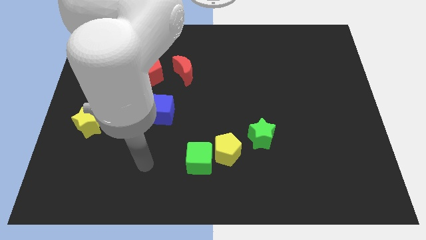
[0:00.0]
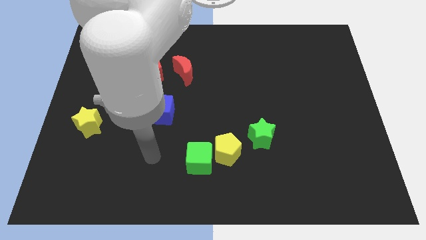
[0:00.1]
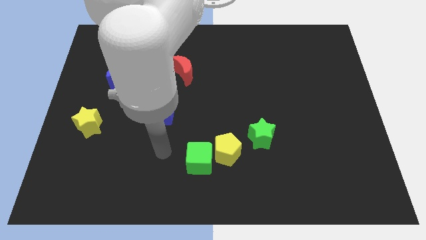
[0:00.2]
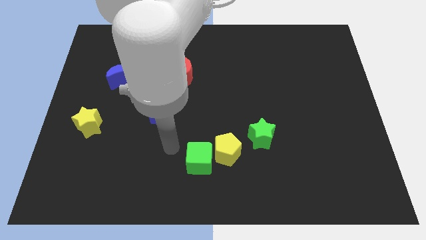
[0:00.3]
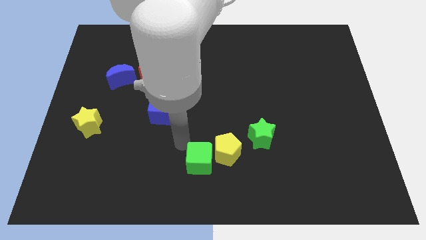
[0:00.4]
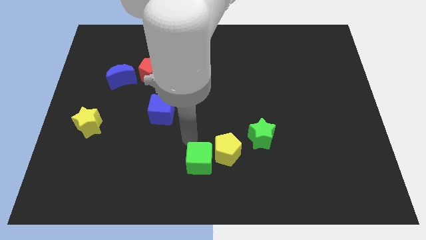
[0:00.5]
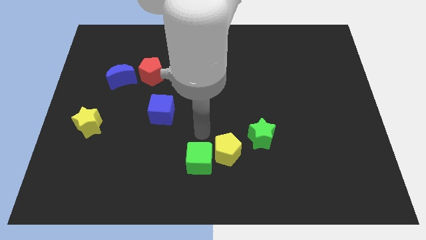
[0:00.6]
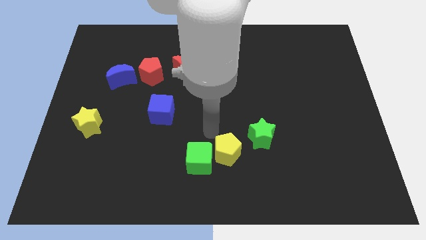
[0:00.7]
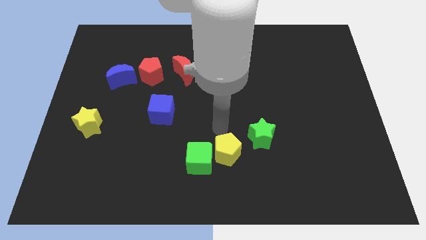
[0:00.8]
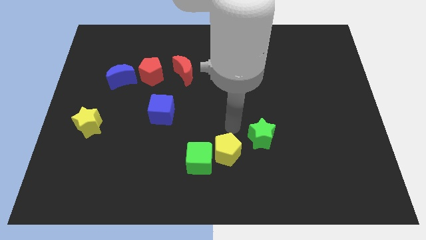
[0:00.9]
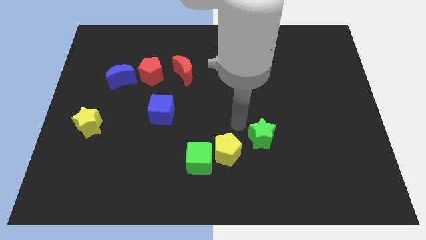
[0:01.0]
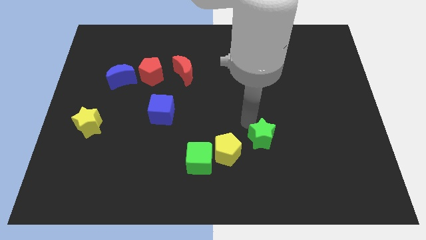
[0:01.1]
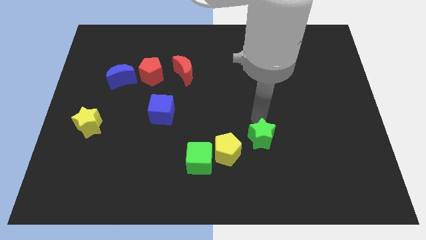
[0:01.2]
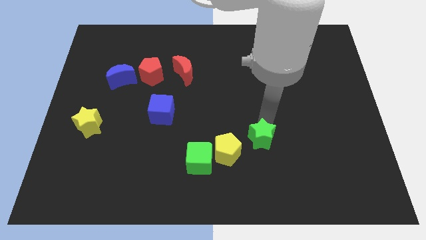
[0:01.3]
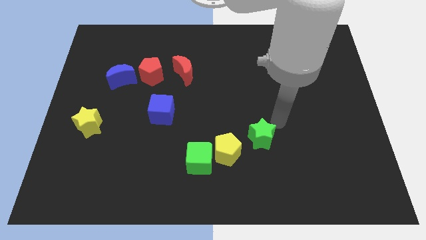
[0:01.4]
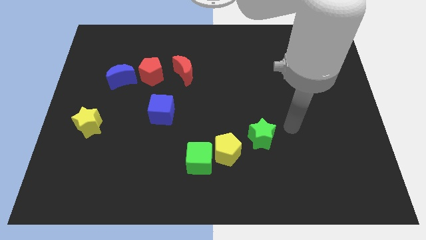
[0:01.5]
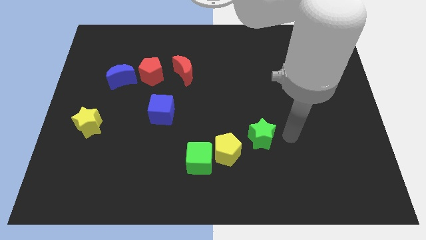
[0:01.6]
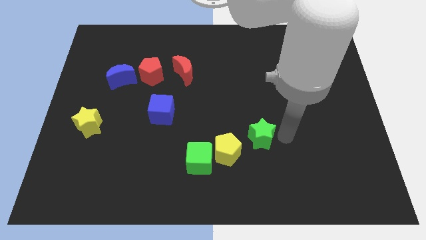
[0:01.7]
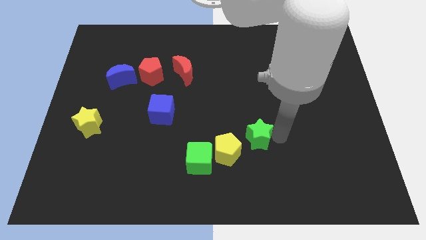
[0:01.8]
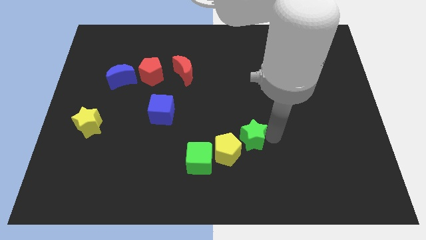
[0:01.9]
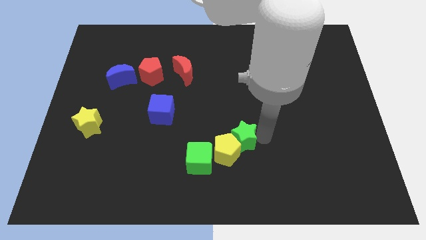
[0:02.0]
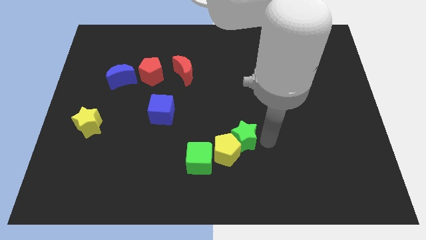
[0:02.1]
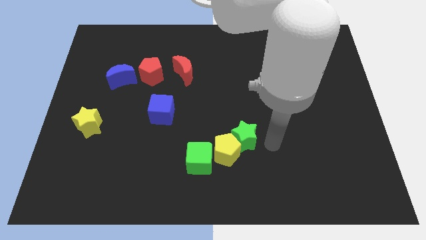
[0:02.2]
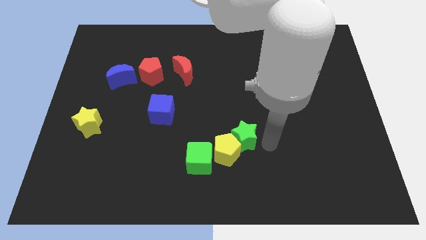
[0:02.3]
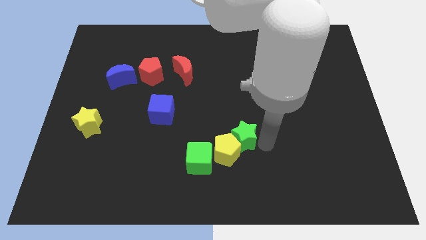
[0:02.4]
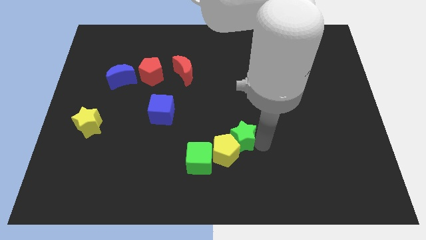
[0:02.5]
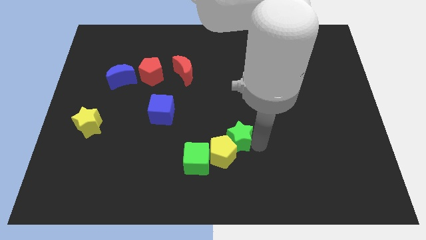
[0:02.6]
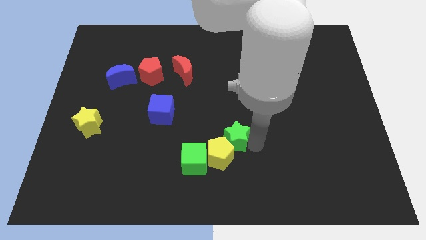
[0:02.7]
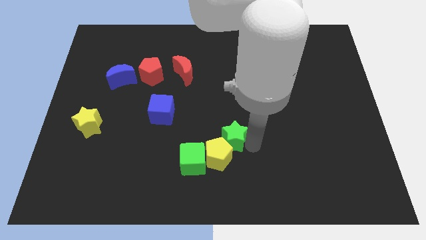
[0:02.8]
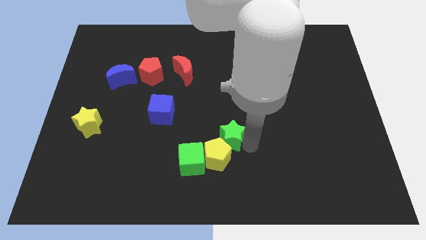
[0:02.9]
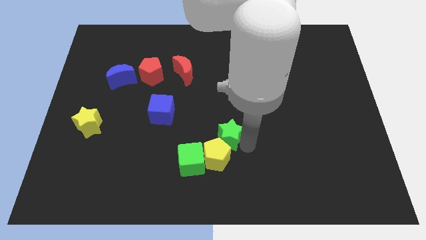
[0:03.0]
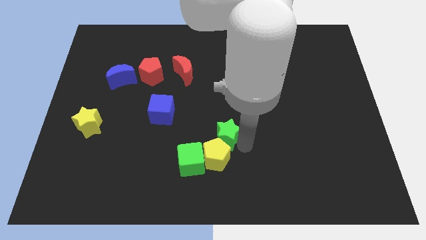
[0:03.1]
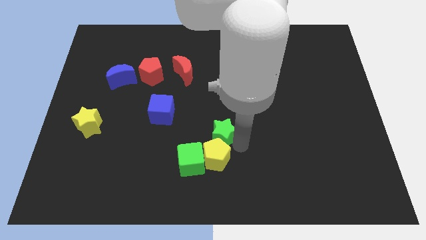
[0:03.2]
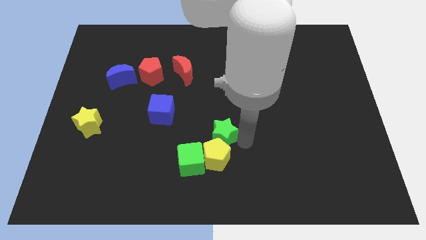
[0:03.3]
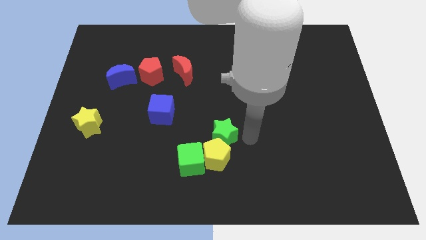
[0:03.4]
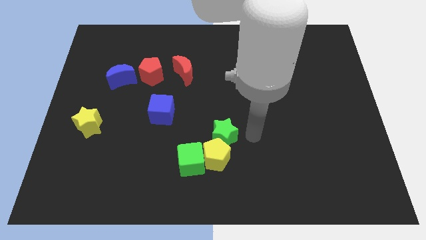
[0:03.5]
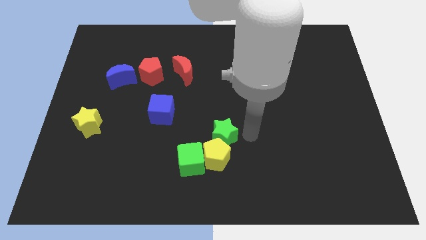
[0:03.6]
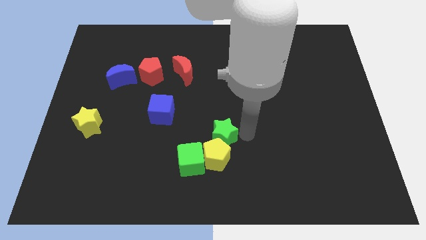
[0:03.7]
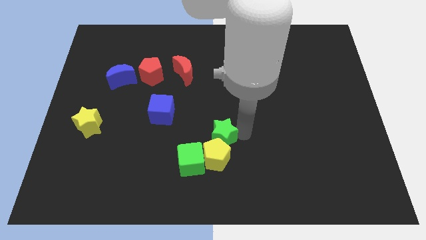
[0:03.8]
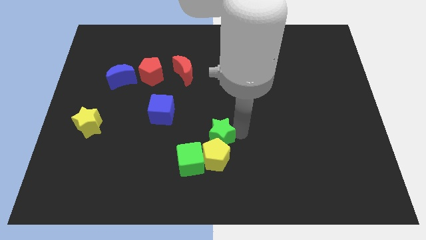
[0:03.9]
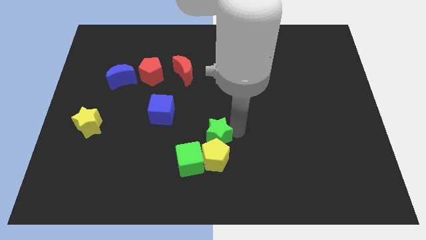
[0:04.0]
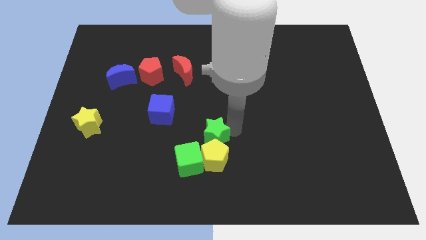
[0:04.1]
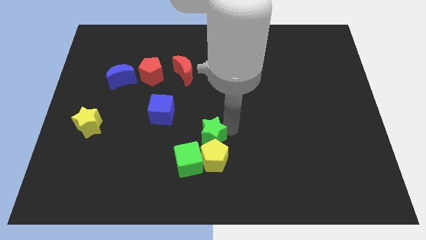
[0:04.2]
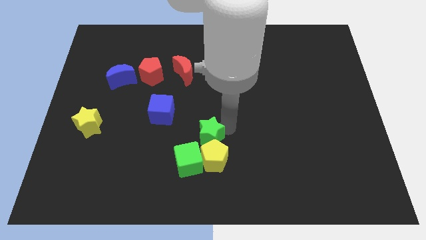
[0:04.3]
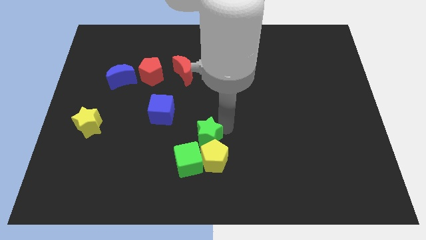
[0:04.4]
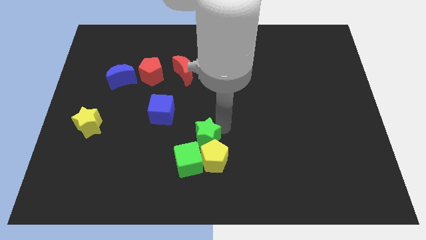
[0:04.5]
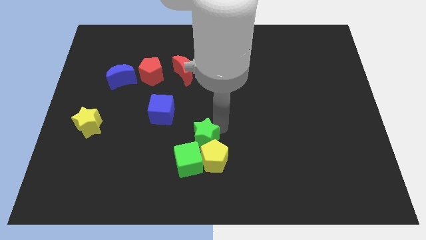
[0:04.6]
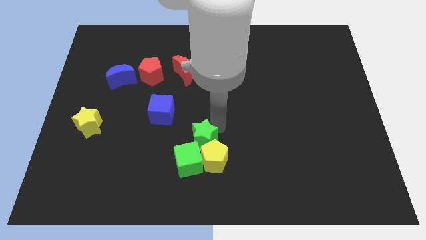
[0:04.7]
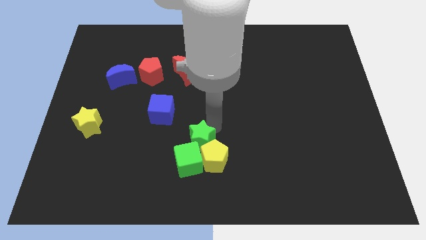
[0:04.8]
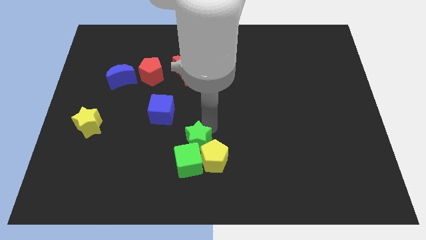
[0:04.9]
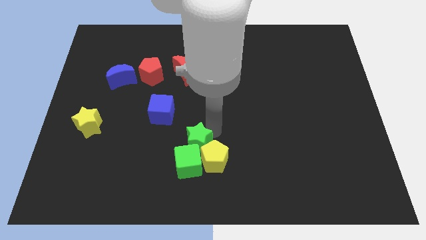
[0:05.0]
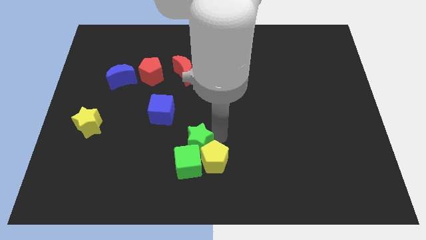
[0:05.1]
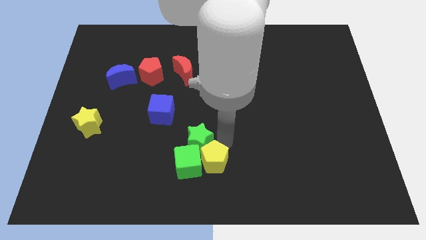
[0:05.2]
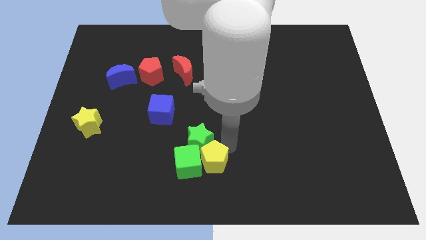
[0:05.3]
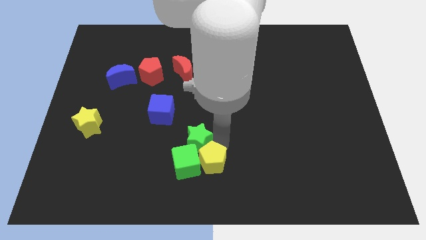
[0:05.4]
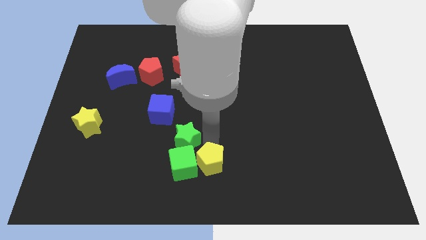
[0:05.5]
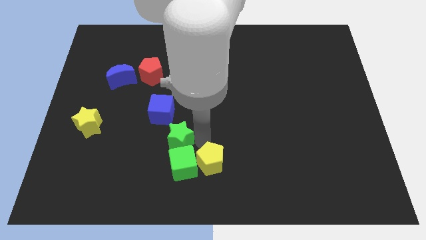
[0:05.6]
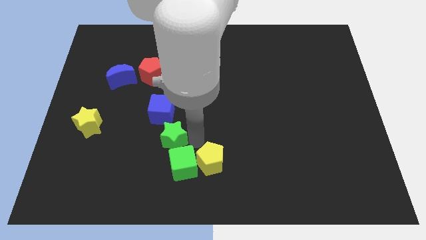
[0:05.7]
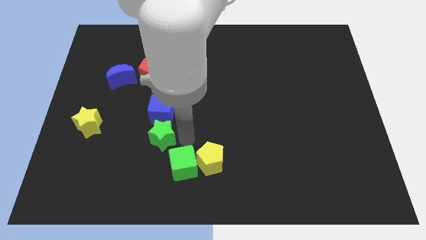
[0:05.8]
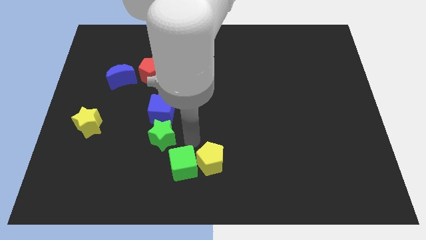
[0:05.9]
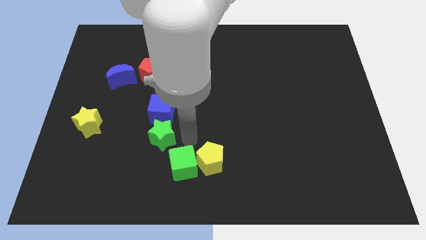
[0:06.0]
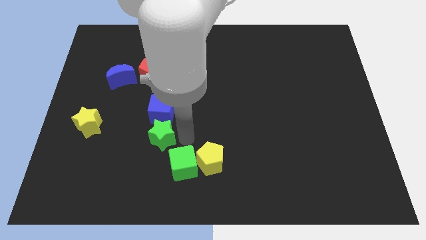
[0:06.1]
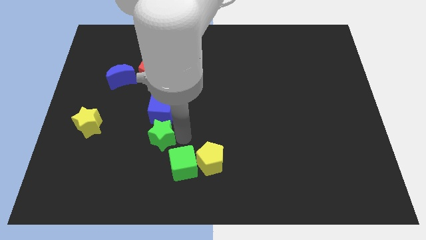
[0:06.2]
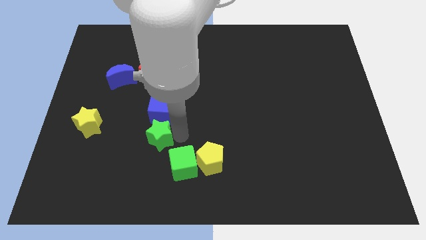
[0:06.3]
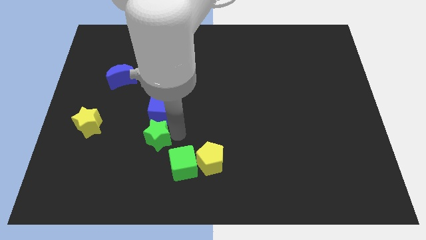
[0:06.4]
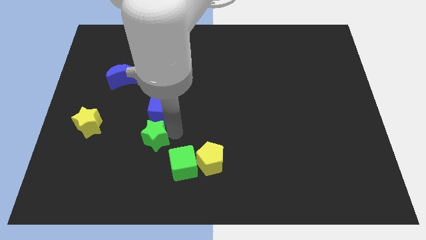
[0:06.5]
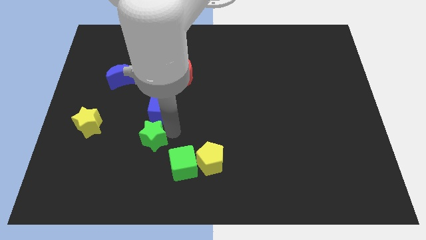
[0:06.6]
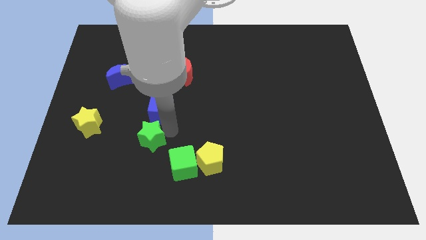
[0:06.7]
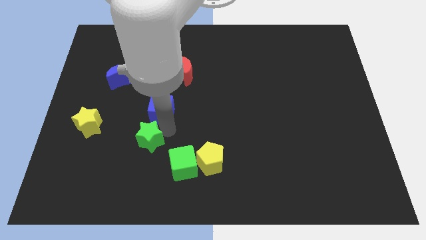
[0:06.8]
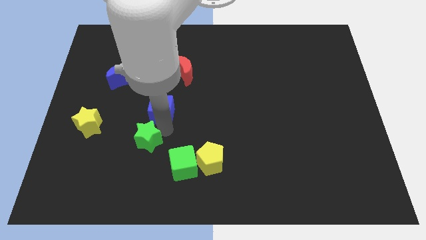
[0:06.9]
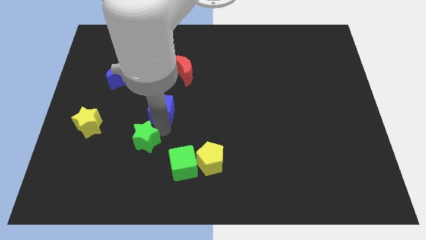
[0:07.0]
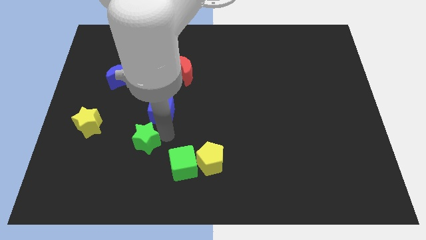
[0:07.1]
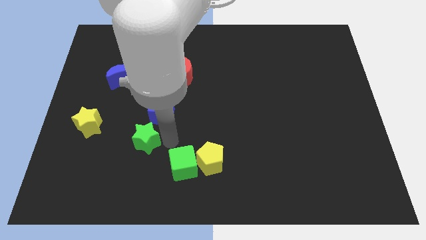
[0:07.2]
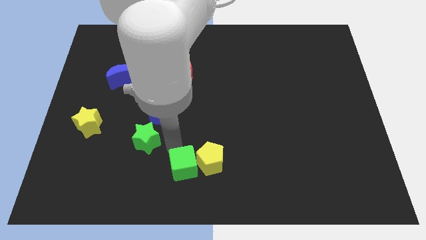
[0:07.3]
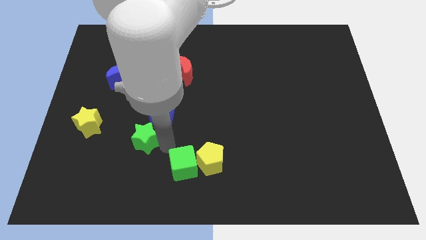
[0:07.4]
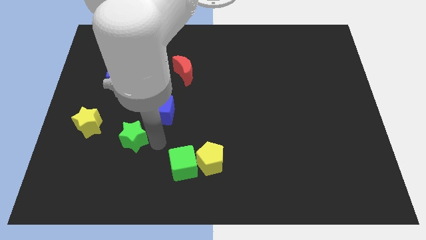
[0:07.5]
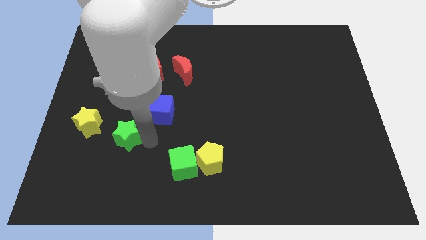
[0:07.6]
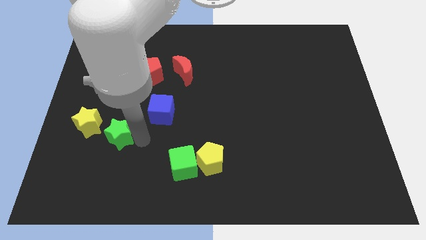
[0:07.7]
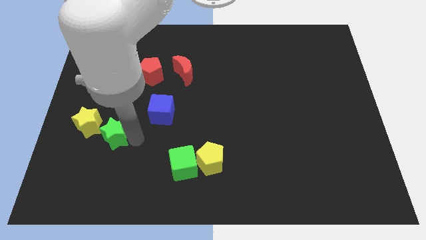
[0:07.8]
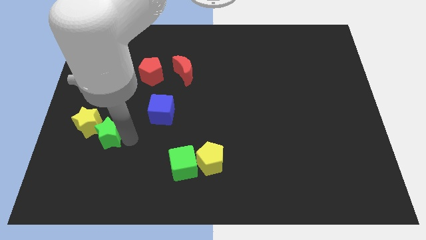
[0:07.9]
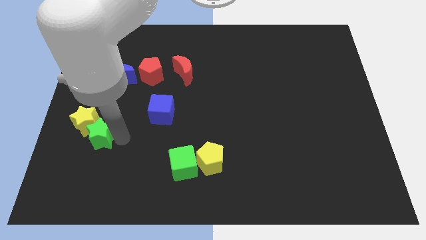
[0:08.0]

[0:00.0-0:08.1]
put the green star to the yellow star
